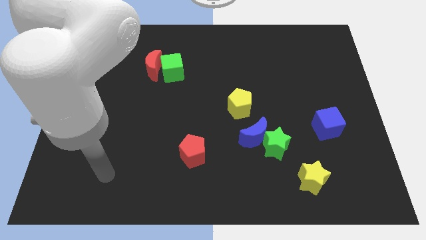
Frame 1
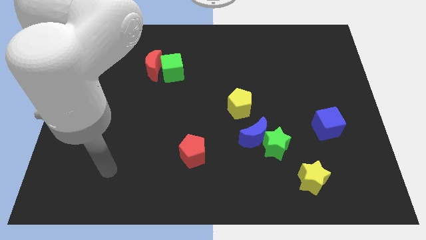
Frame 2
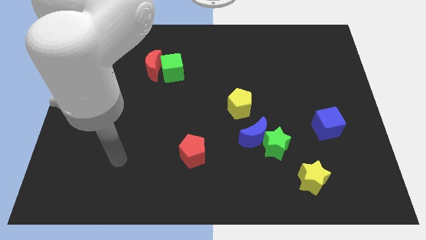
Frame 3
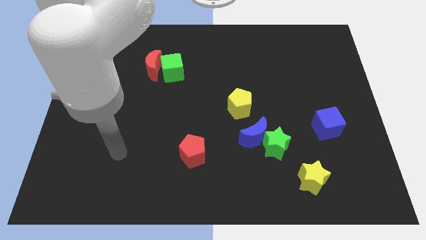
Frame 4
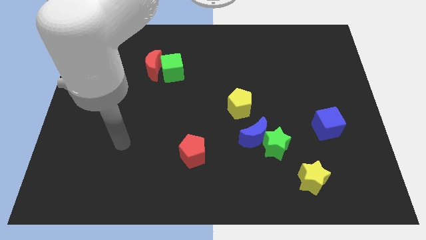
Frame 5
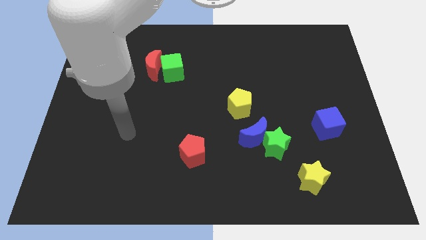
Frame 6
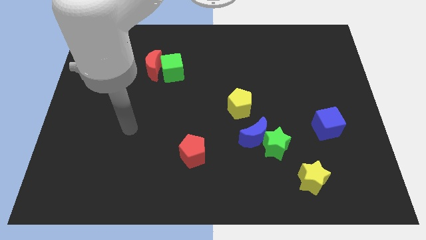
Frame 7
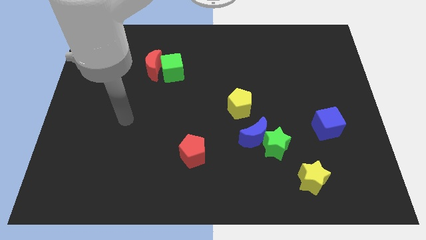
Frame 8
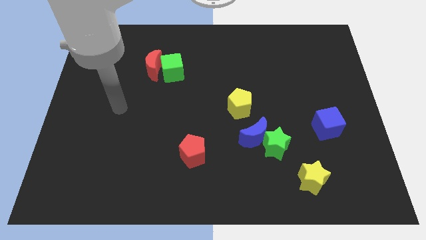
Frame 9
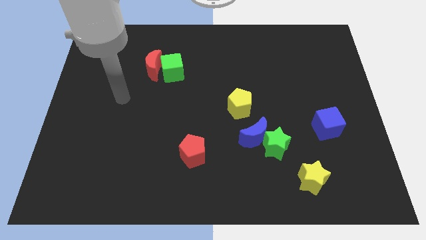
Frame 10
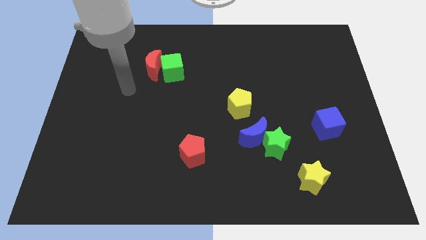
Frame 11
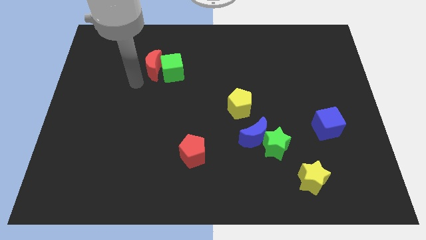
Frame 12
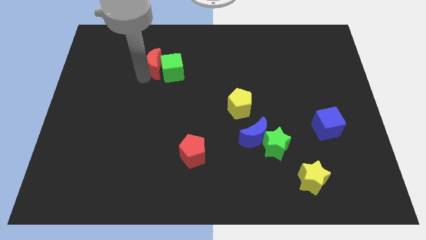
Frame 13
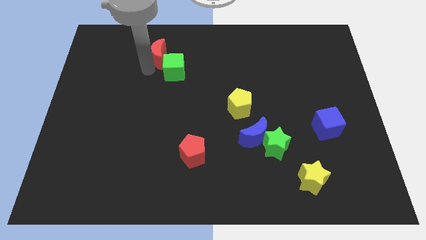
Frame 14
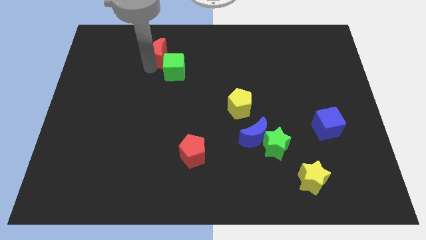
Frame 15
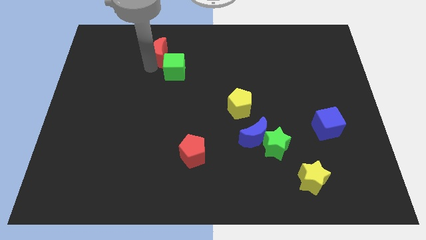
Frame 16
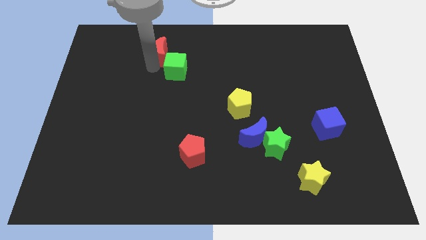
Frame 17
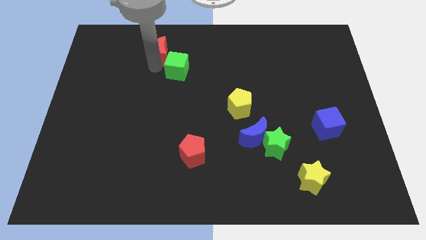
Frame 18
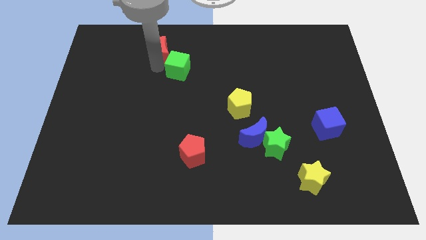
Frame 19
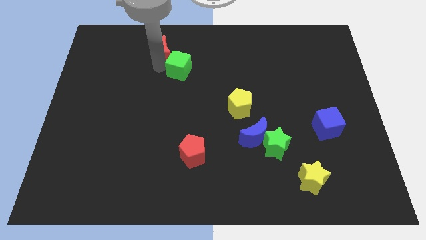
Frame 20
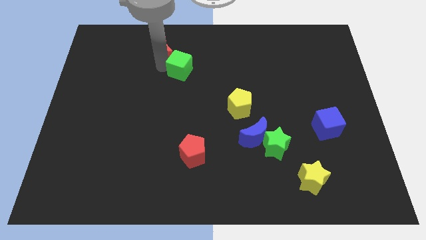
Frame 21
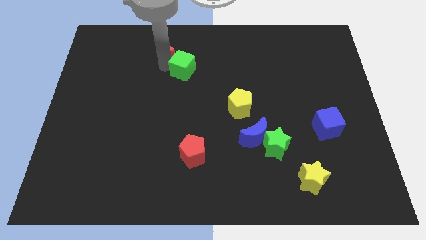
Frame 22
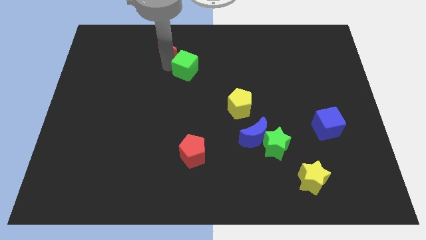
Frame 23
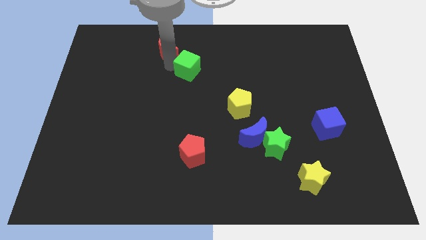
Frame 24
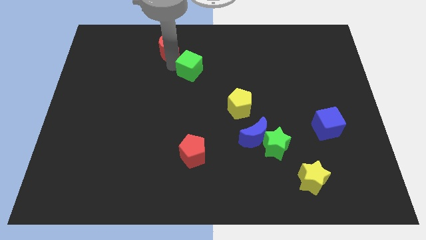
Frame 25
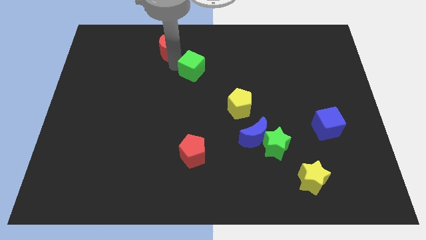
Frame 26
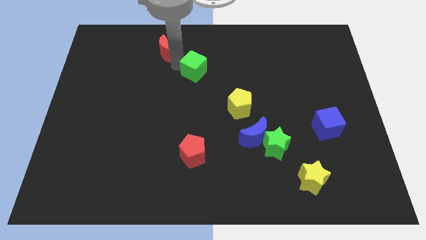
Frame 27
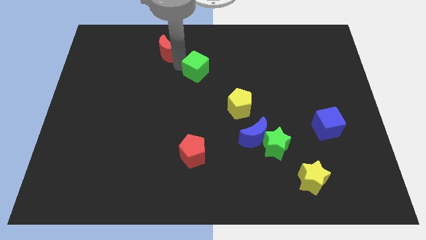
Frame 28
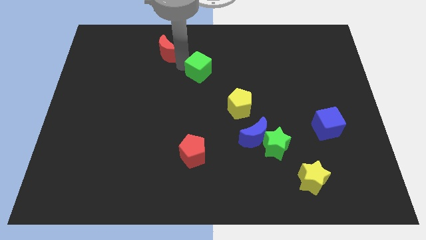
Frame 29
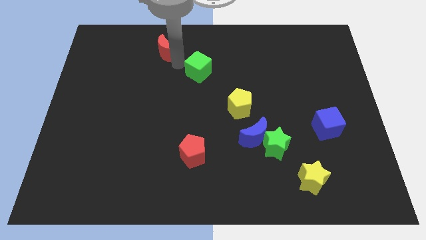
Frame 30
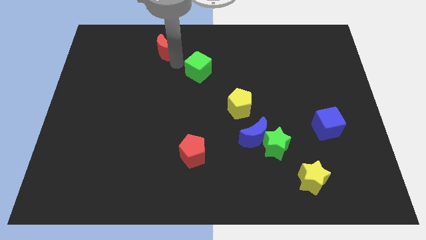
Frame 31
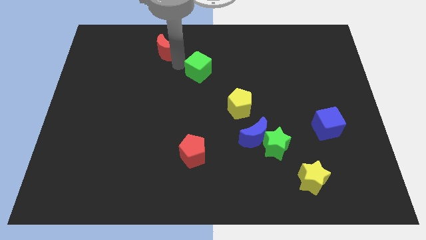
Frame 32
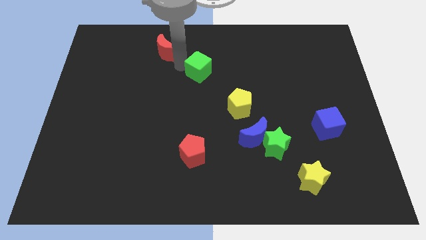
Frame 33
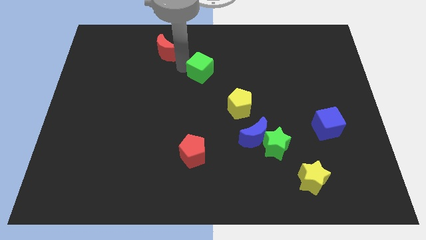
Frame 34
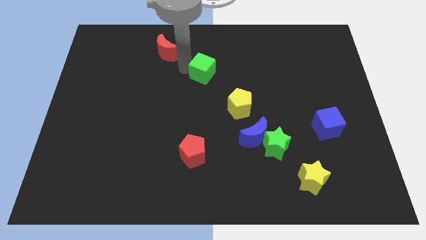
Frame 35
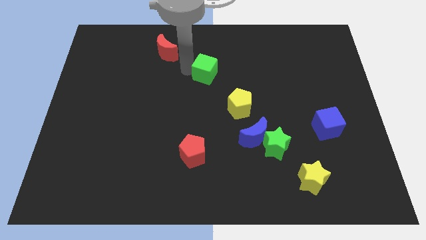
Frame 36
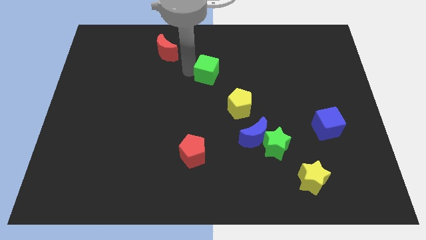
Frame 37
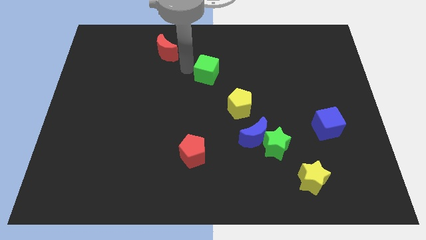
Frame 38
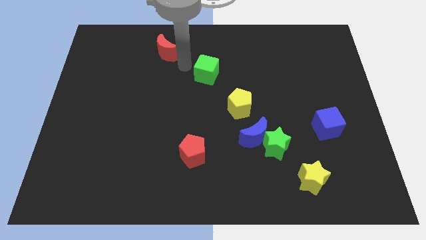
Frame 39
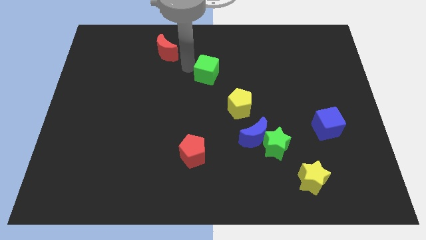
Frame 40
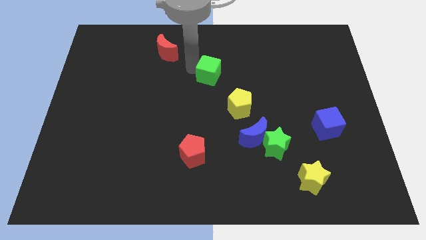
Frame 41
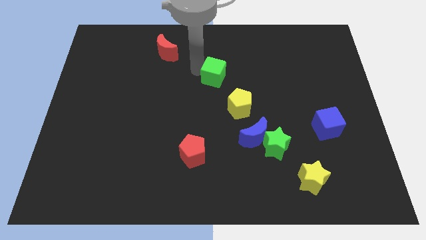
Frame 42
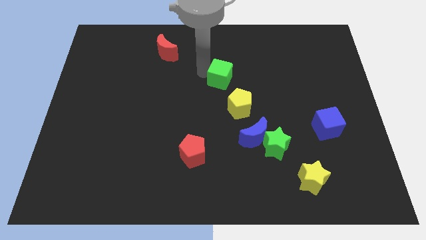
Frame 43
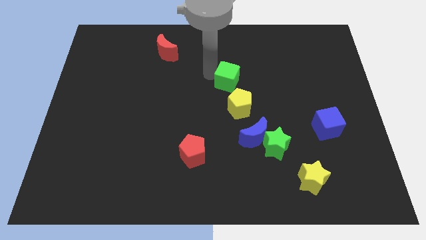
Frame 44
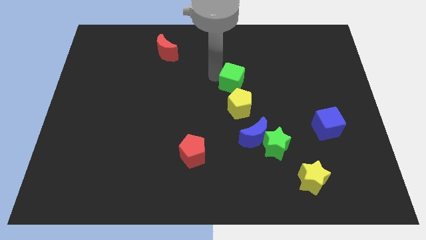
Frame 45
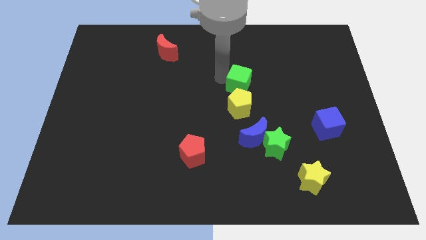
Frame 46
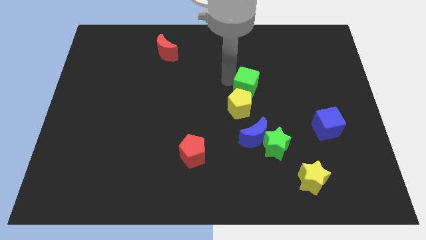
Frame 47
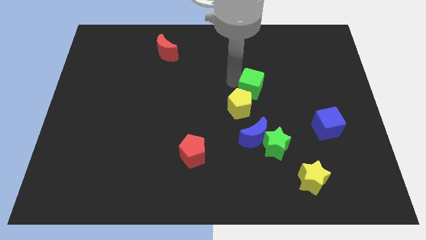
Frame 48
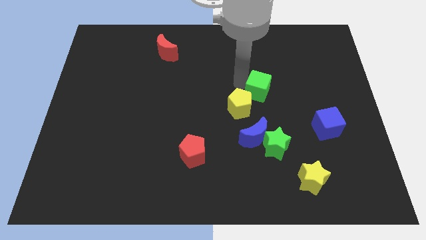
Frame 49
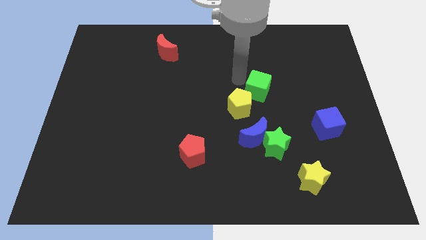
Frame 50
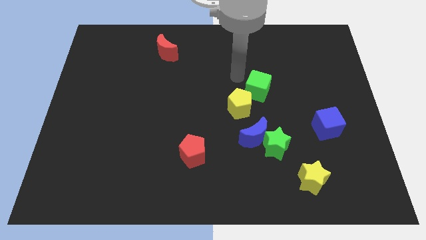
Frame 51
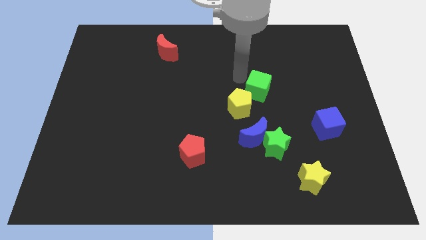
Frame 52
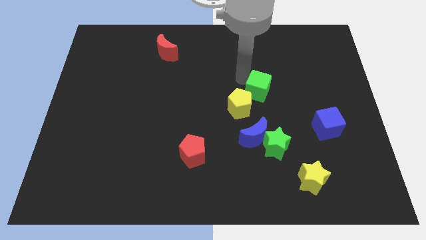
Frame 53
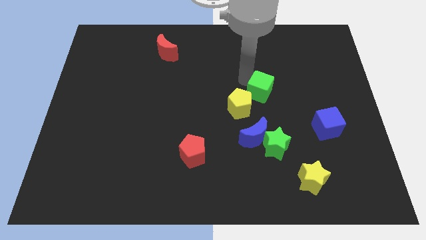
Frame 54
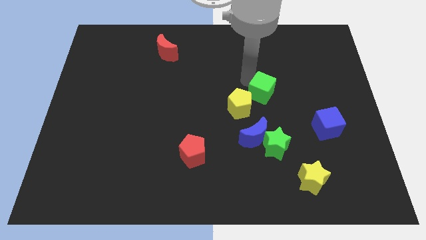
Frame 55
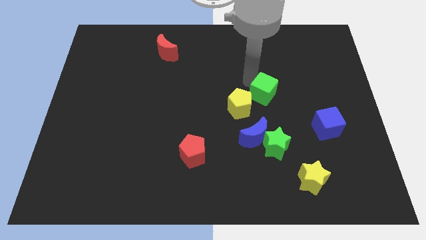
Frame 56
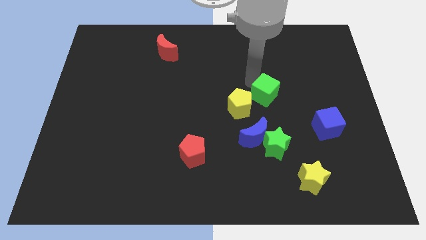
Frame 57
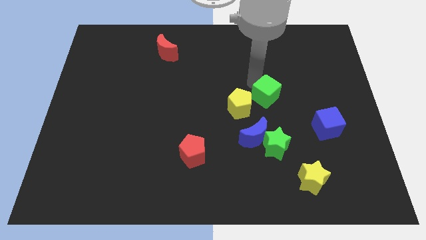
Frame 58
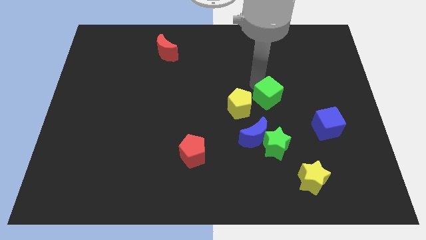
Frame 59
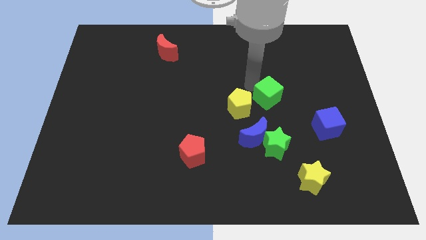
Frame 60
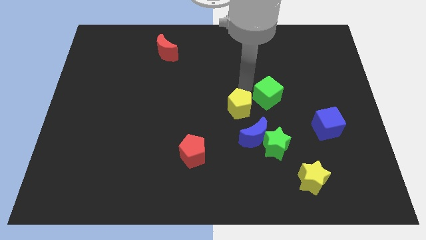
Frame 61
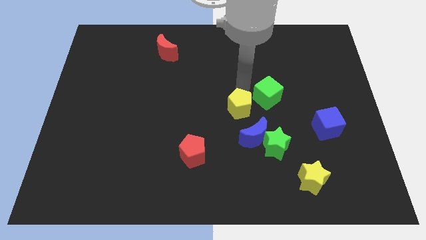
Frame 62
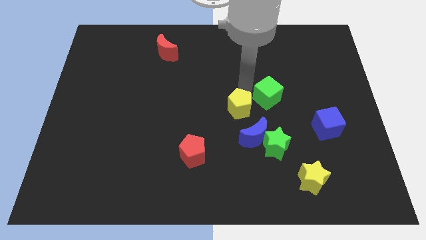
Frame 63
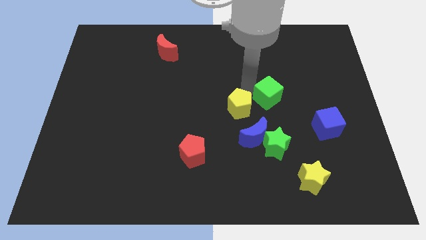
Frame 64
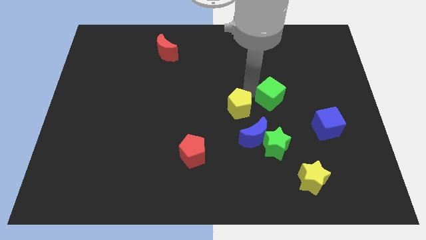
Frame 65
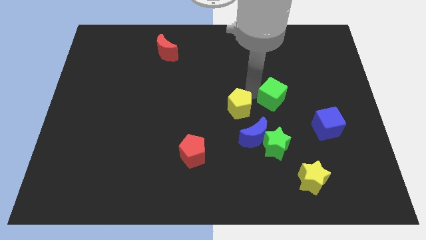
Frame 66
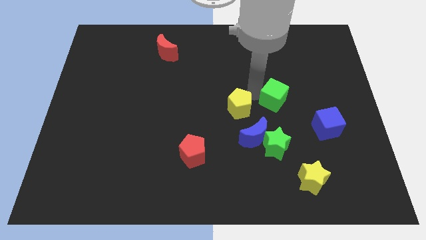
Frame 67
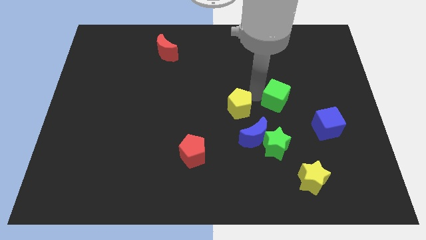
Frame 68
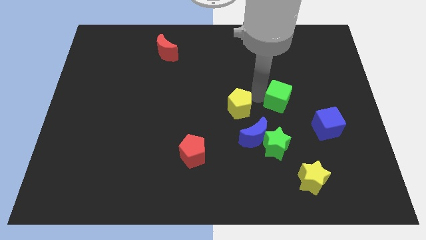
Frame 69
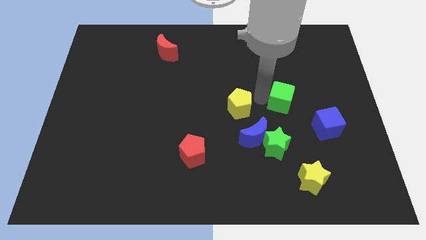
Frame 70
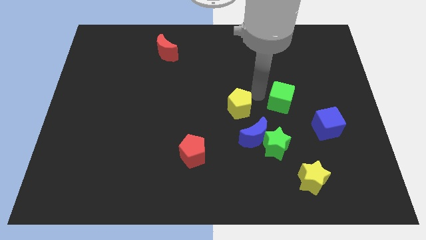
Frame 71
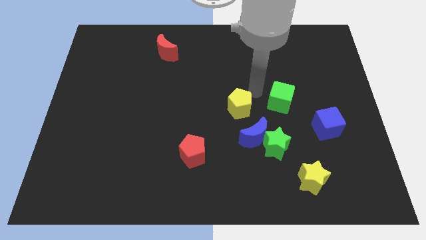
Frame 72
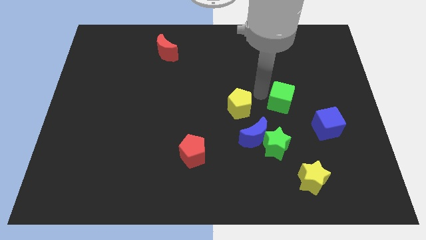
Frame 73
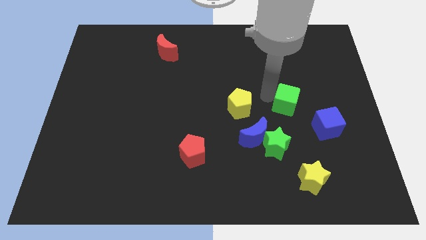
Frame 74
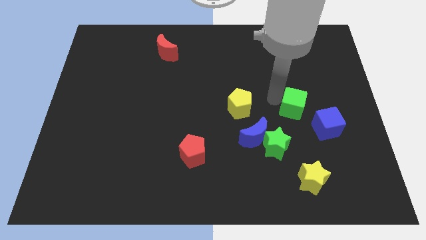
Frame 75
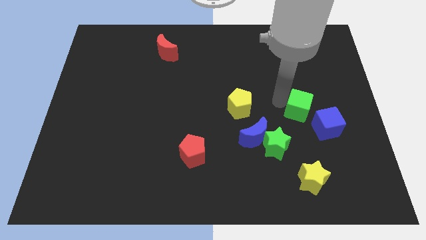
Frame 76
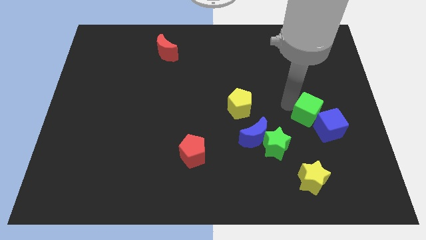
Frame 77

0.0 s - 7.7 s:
push the green cube towards the blue cube

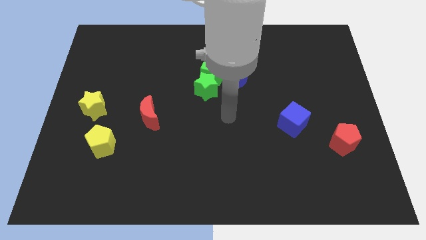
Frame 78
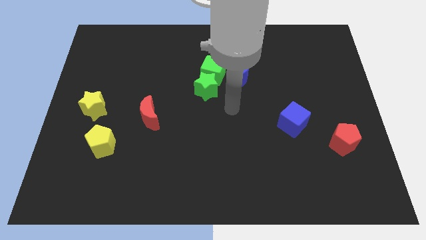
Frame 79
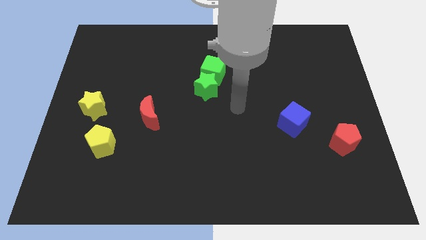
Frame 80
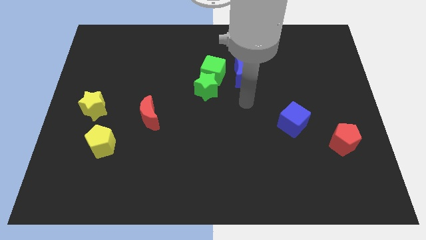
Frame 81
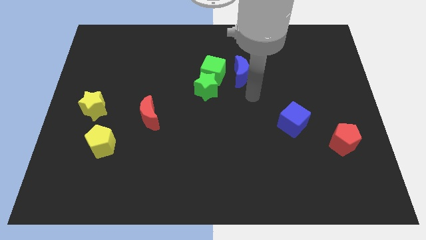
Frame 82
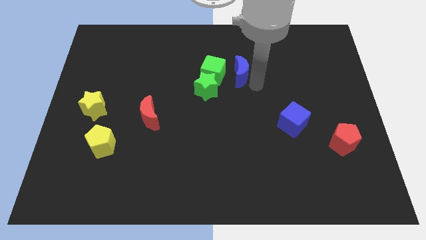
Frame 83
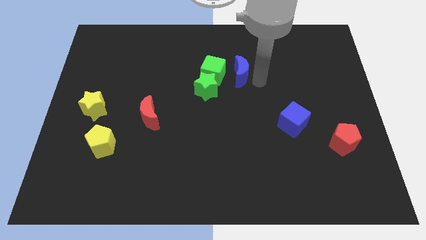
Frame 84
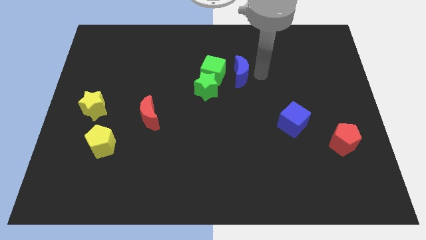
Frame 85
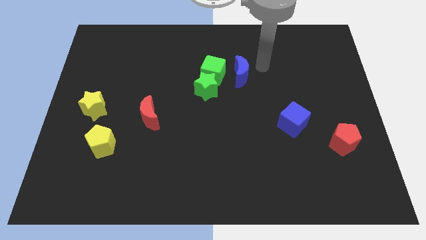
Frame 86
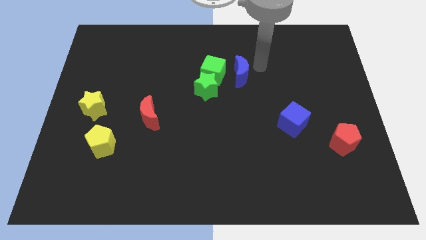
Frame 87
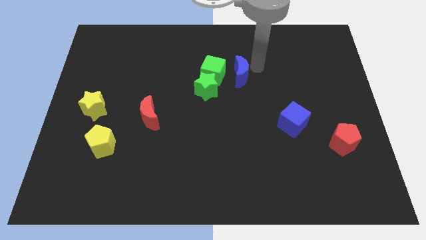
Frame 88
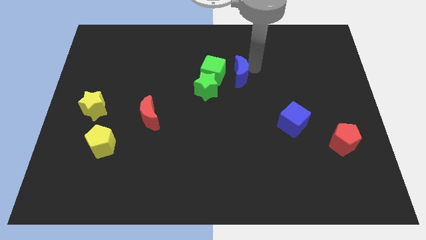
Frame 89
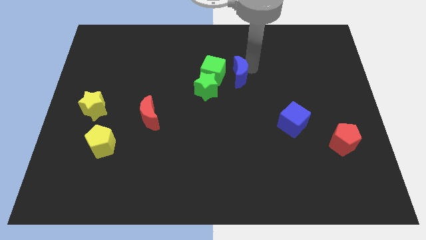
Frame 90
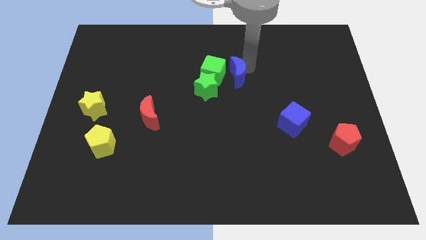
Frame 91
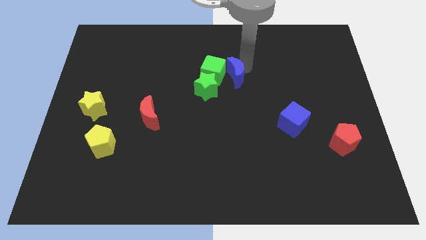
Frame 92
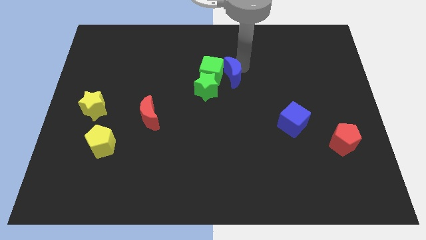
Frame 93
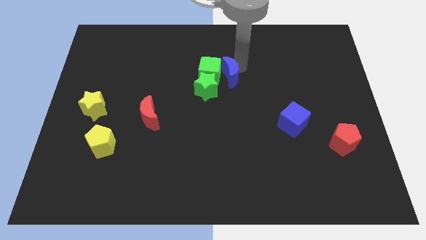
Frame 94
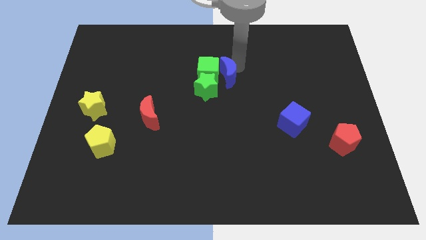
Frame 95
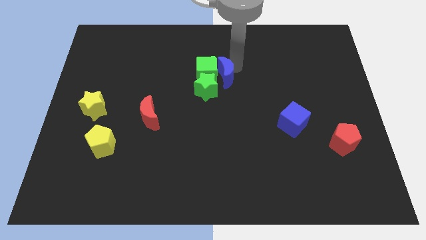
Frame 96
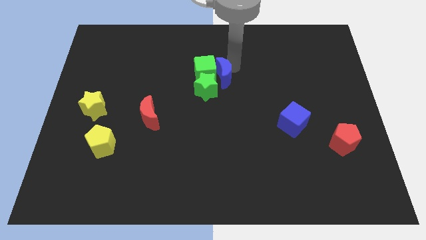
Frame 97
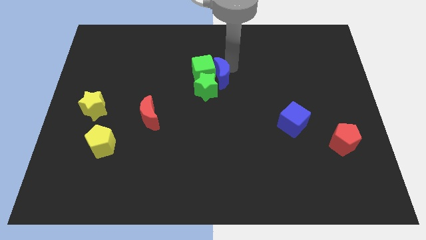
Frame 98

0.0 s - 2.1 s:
move the blue moon to the green star
